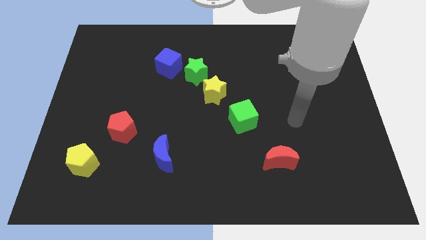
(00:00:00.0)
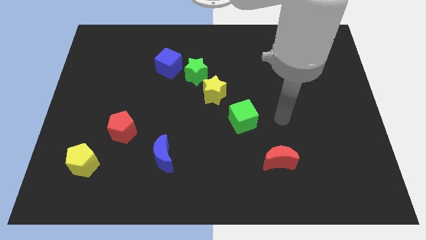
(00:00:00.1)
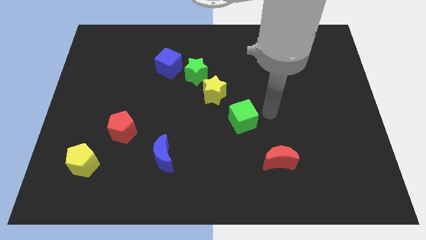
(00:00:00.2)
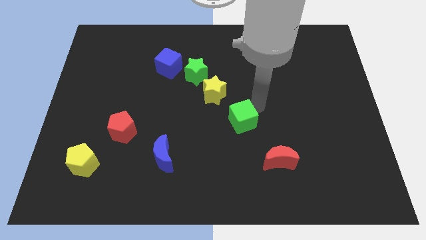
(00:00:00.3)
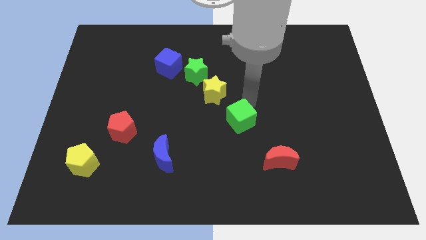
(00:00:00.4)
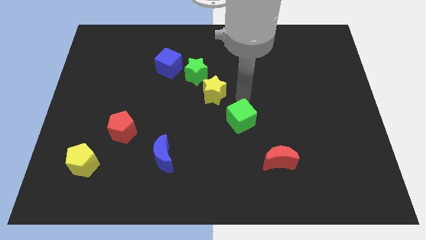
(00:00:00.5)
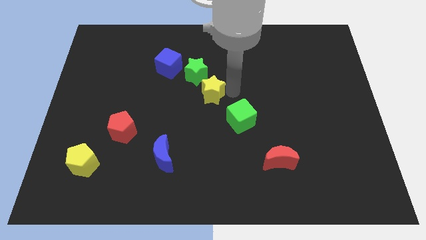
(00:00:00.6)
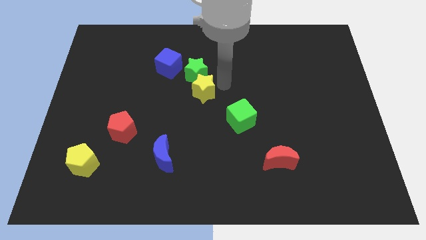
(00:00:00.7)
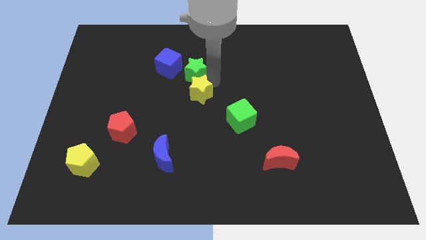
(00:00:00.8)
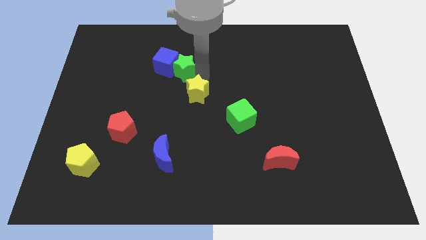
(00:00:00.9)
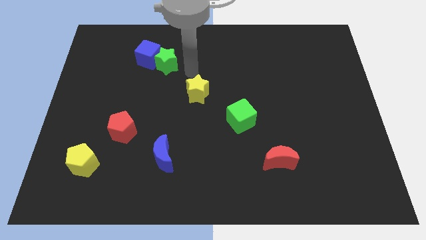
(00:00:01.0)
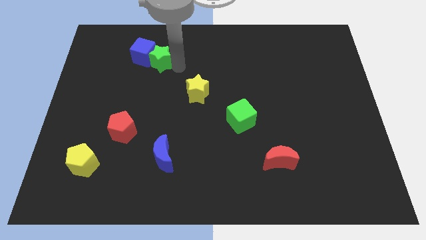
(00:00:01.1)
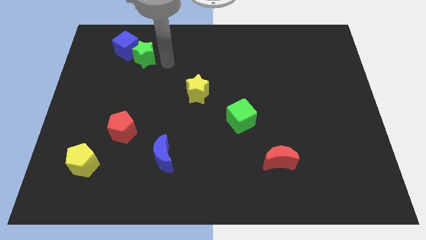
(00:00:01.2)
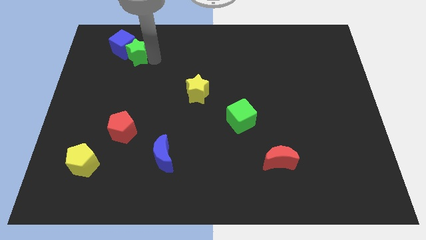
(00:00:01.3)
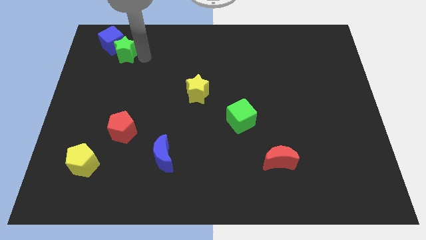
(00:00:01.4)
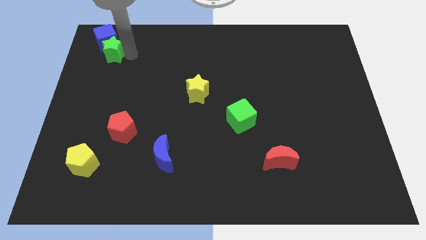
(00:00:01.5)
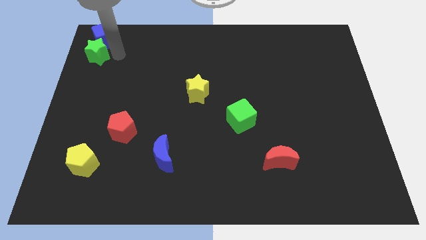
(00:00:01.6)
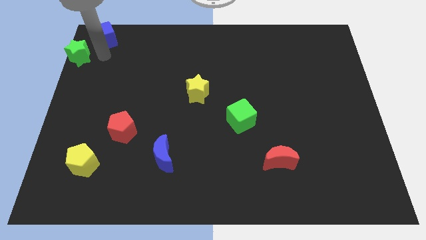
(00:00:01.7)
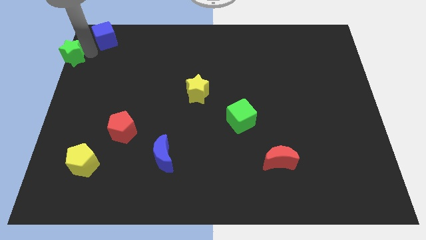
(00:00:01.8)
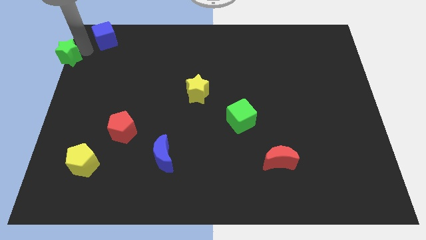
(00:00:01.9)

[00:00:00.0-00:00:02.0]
pull the blue cube apart from the green star

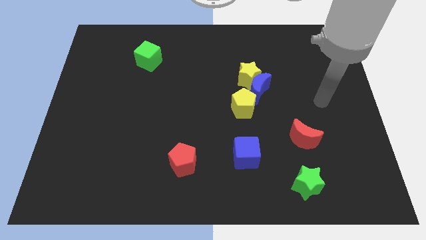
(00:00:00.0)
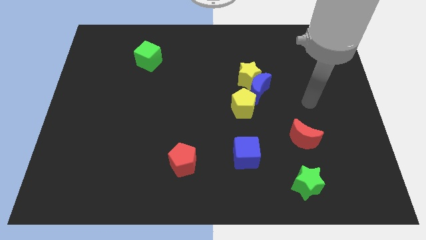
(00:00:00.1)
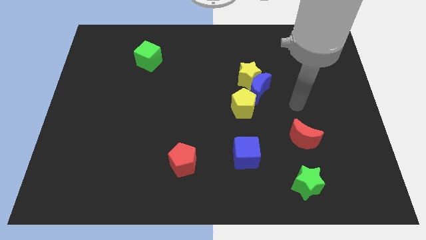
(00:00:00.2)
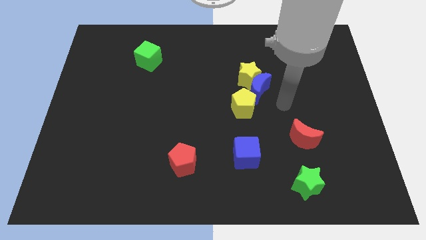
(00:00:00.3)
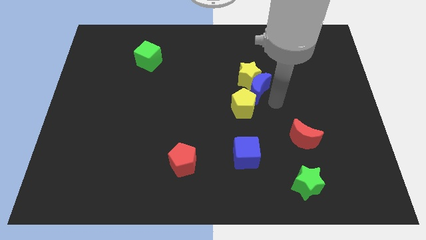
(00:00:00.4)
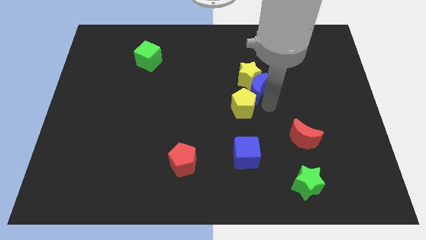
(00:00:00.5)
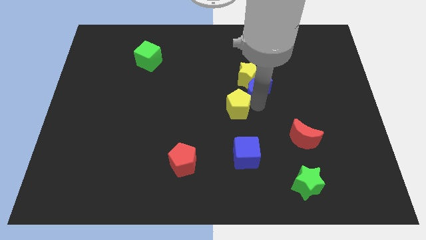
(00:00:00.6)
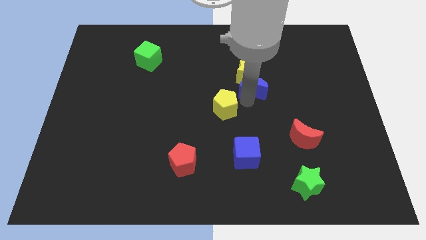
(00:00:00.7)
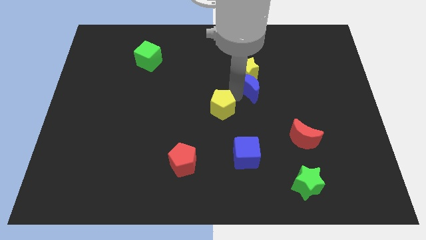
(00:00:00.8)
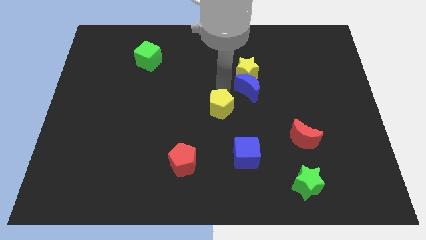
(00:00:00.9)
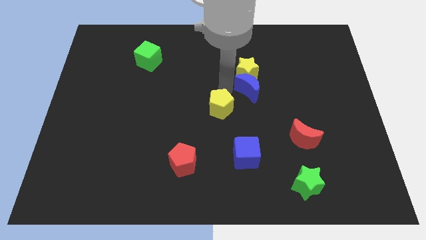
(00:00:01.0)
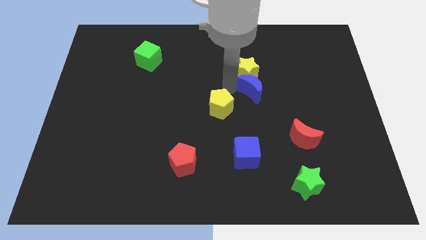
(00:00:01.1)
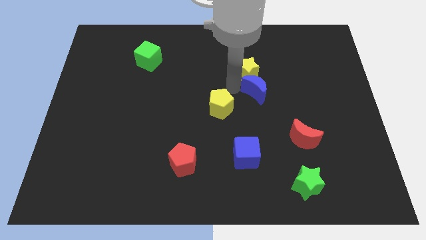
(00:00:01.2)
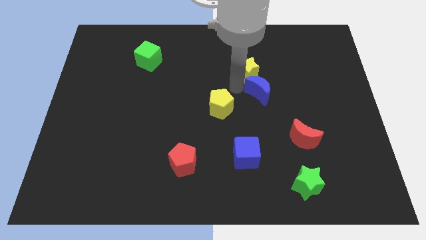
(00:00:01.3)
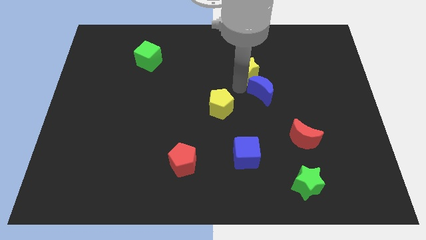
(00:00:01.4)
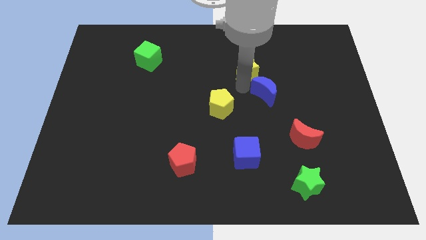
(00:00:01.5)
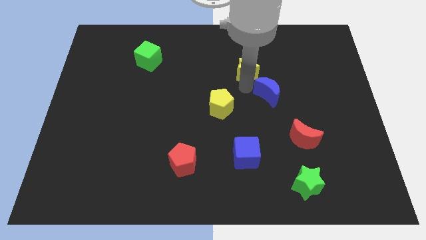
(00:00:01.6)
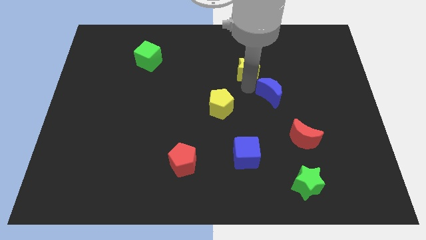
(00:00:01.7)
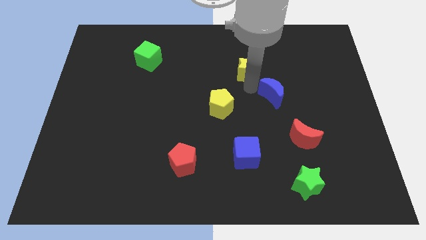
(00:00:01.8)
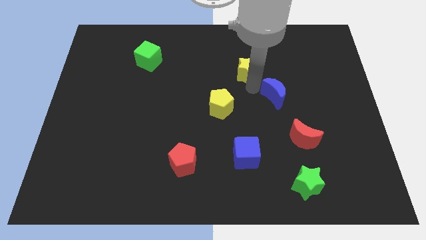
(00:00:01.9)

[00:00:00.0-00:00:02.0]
separate the blue moon from the yellow star and yellow pentagon

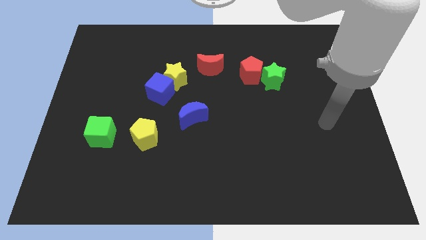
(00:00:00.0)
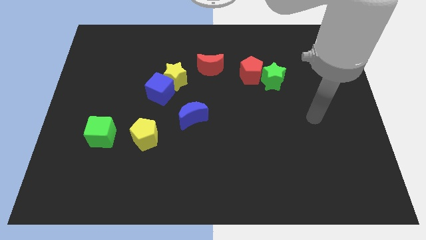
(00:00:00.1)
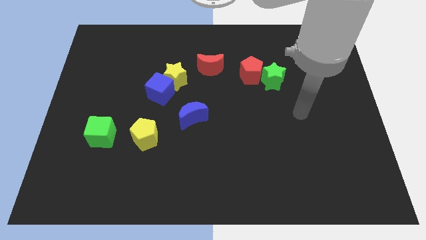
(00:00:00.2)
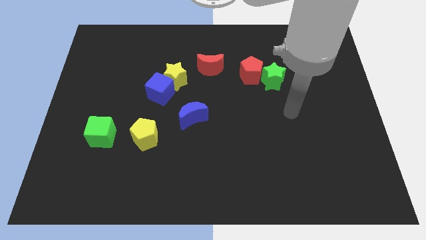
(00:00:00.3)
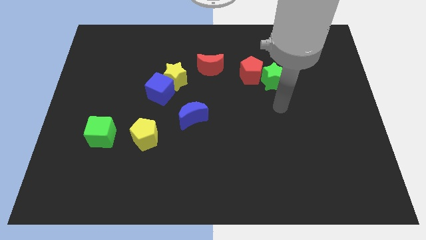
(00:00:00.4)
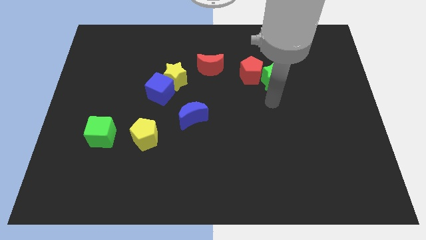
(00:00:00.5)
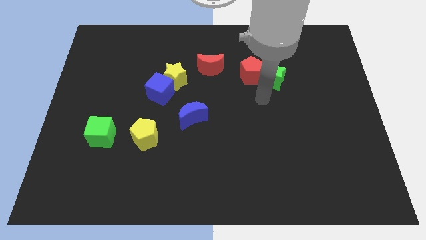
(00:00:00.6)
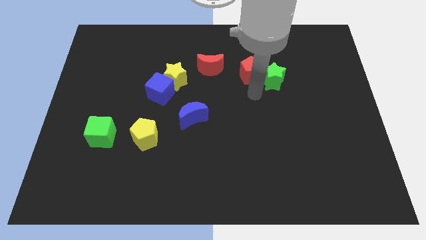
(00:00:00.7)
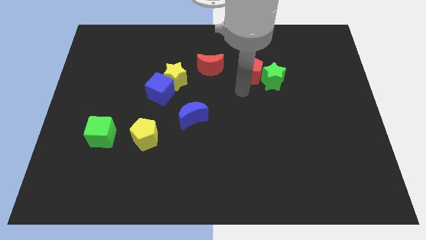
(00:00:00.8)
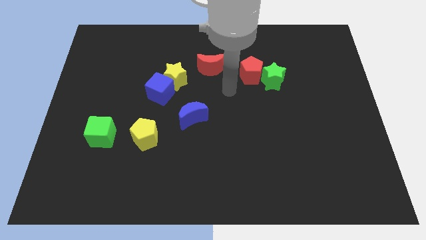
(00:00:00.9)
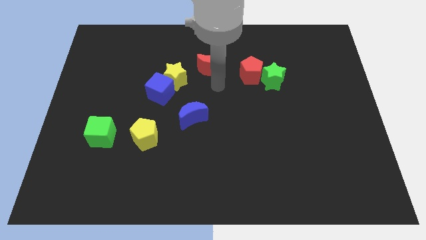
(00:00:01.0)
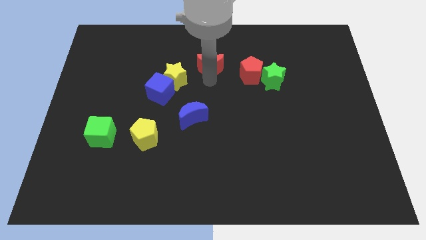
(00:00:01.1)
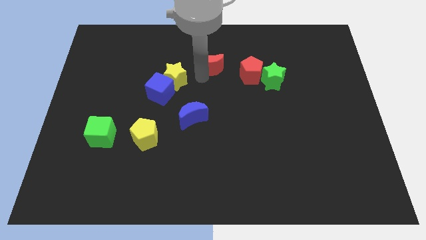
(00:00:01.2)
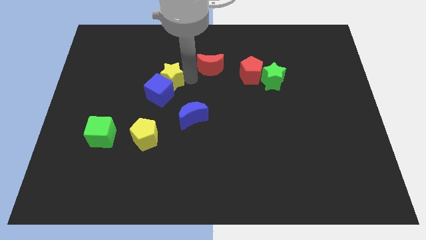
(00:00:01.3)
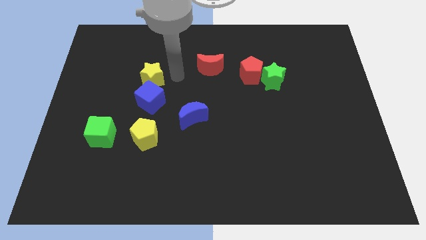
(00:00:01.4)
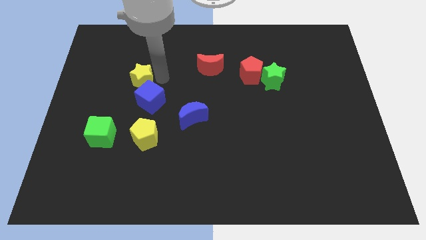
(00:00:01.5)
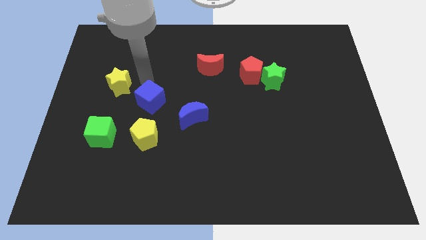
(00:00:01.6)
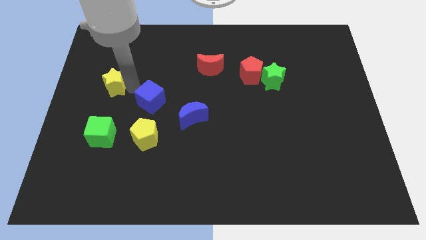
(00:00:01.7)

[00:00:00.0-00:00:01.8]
pull the blue cube apart from the yellow star

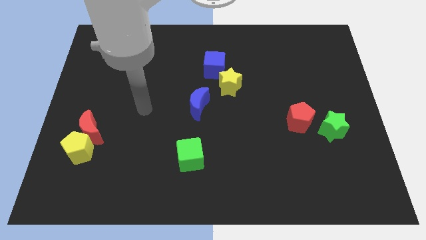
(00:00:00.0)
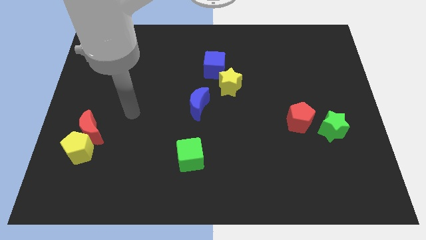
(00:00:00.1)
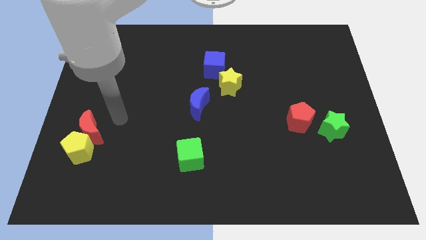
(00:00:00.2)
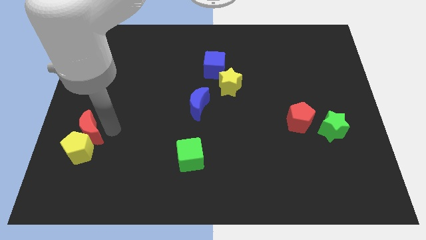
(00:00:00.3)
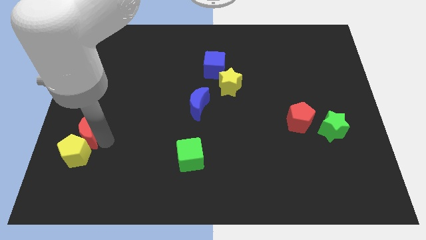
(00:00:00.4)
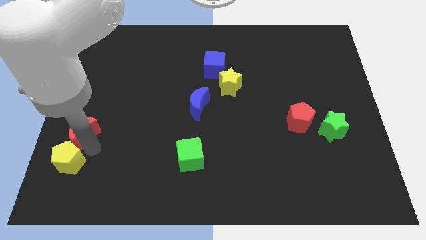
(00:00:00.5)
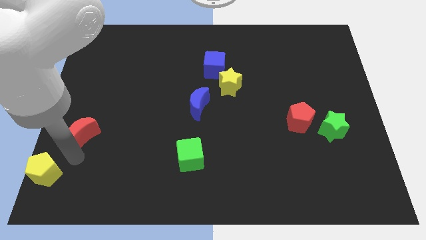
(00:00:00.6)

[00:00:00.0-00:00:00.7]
move the red moon away from the yellow pentagon

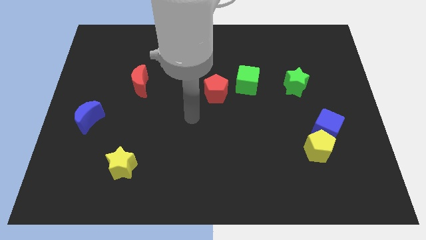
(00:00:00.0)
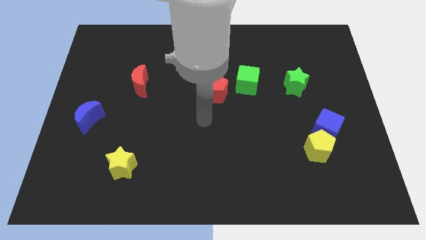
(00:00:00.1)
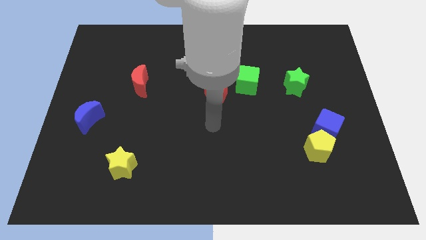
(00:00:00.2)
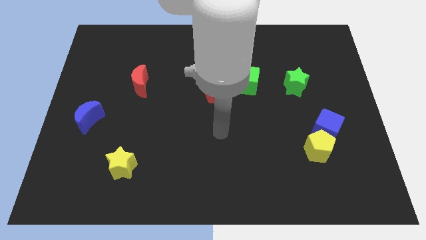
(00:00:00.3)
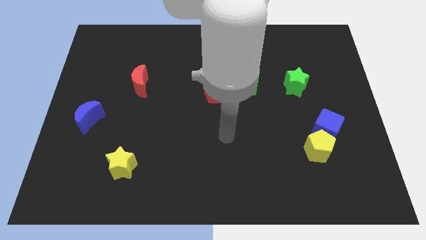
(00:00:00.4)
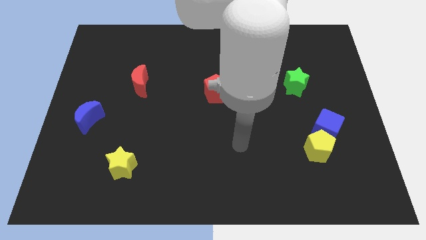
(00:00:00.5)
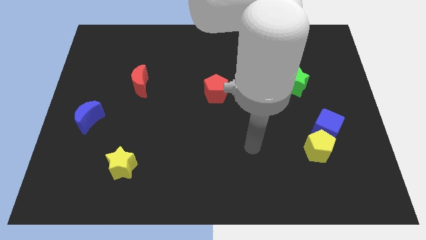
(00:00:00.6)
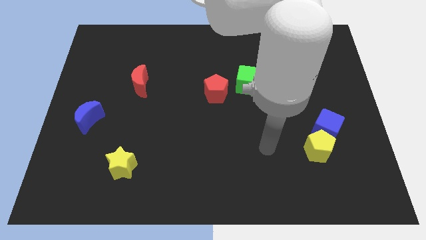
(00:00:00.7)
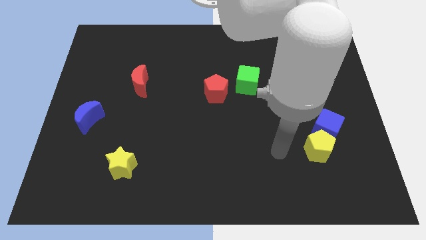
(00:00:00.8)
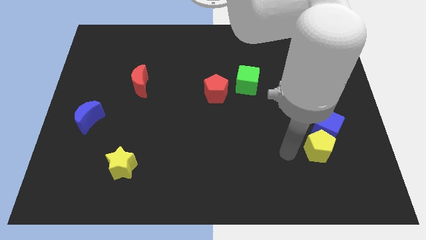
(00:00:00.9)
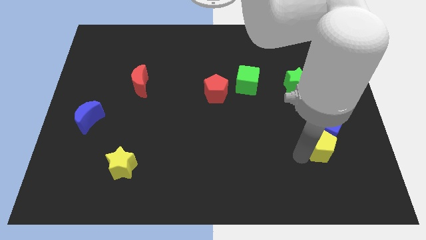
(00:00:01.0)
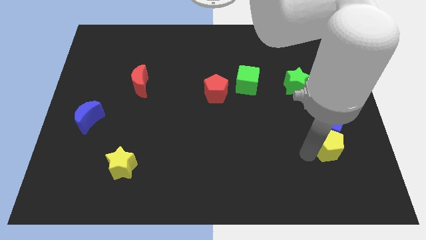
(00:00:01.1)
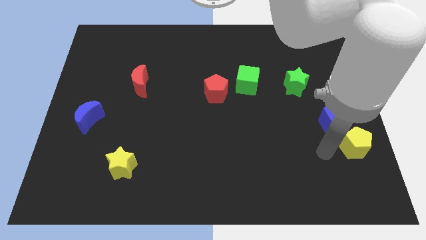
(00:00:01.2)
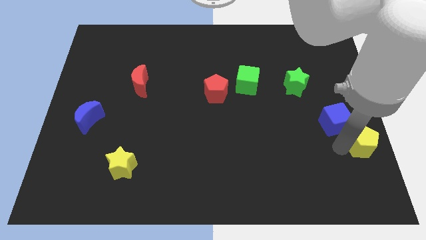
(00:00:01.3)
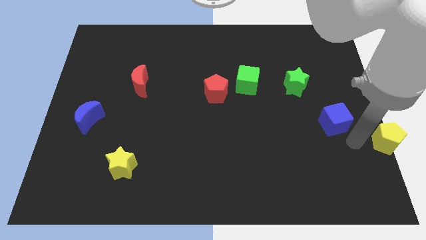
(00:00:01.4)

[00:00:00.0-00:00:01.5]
pull the blue cube apart from the yellow pentagon

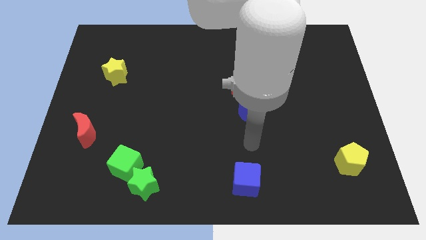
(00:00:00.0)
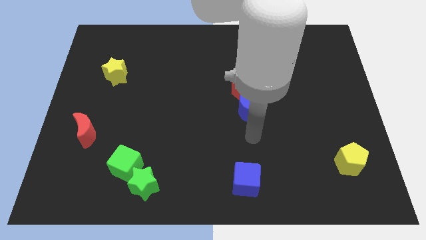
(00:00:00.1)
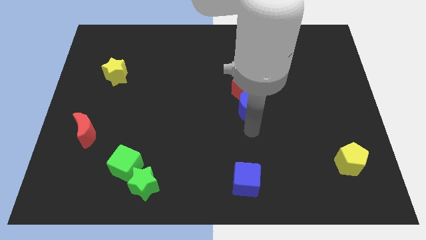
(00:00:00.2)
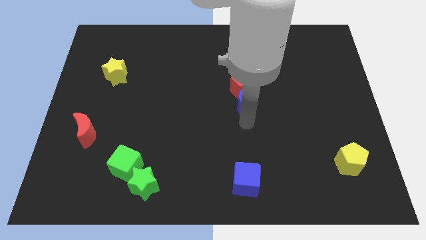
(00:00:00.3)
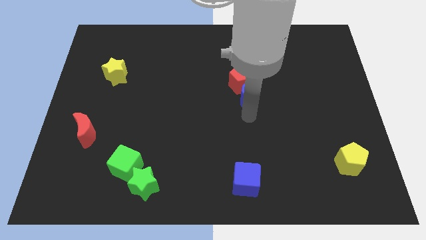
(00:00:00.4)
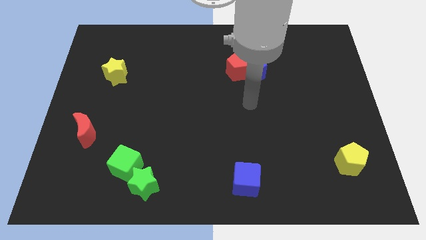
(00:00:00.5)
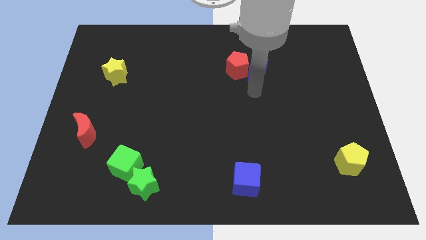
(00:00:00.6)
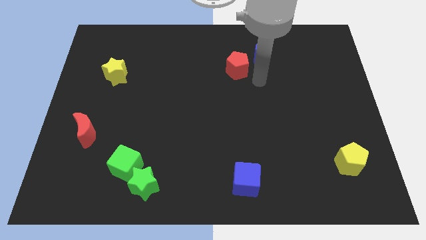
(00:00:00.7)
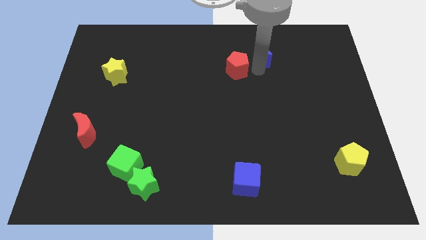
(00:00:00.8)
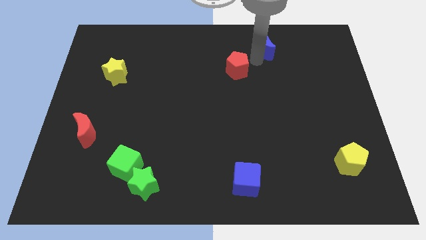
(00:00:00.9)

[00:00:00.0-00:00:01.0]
separate the red pentagon from the blue moon

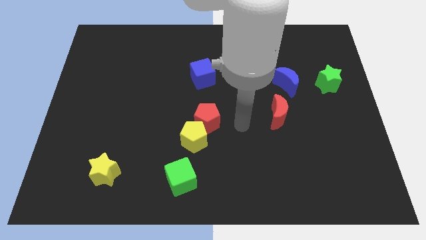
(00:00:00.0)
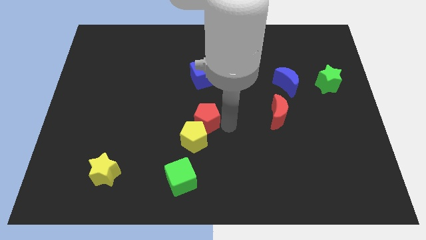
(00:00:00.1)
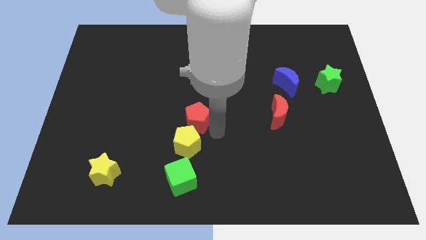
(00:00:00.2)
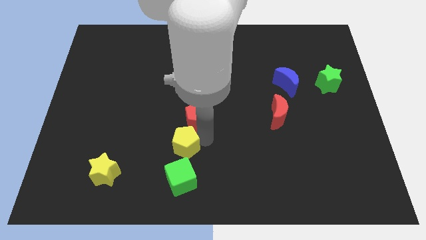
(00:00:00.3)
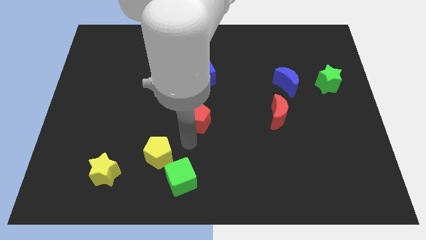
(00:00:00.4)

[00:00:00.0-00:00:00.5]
move the red pentagon away from the yellow pentagon
